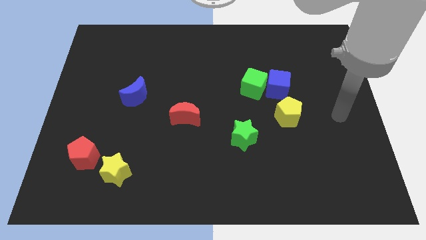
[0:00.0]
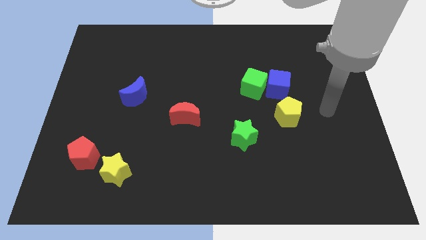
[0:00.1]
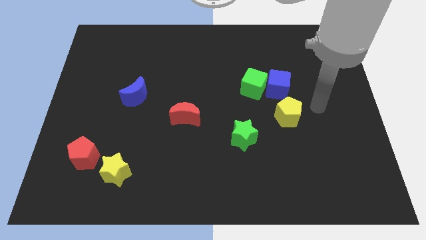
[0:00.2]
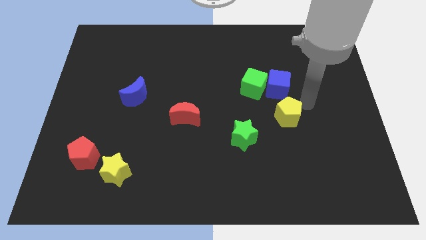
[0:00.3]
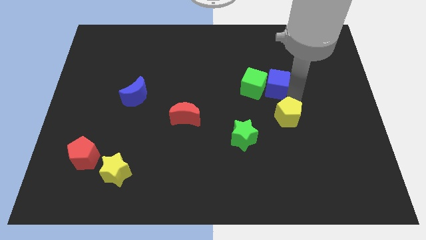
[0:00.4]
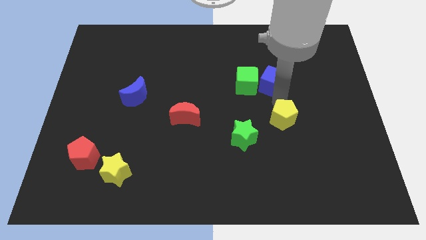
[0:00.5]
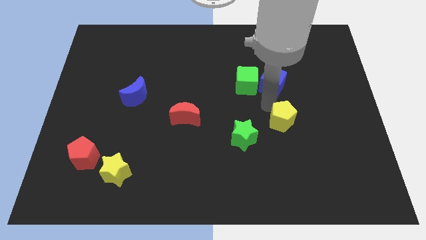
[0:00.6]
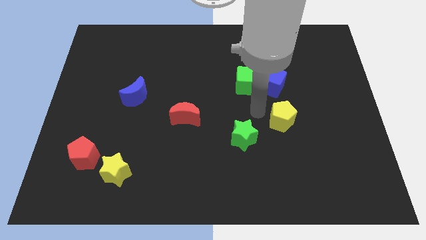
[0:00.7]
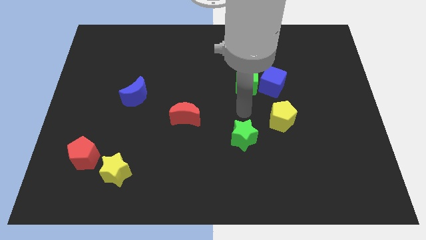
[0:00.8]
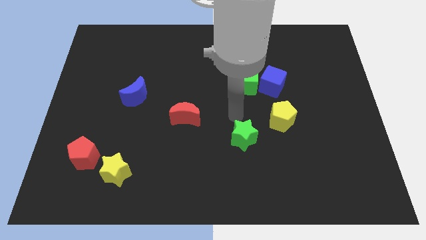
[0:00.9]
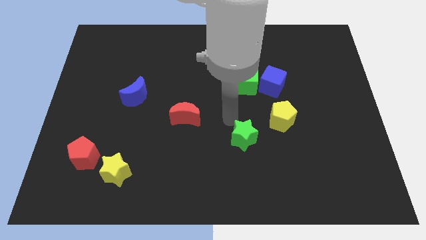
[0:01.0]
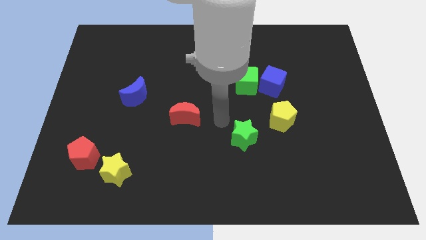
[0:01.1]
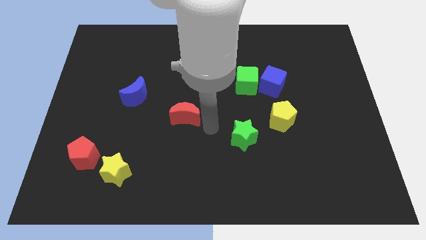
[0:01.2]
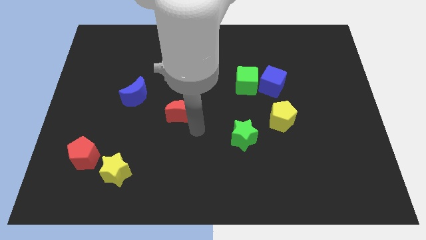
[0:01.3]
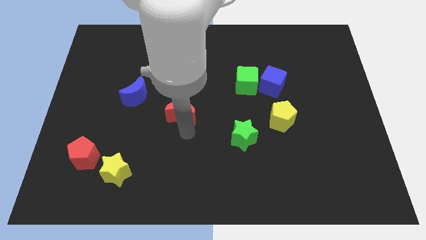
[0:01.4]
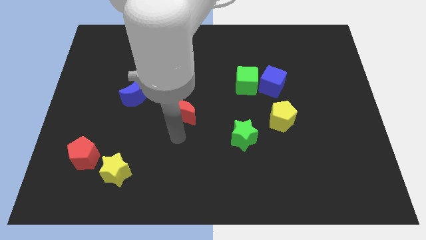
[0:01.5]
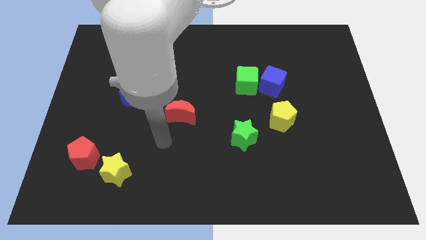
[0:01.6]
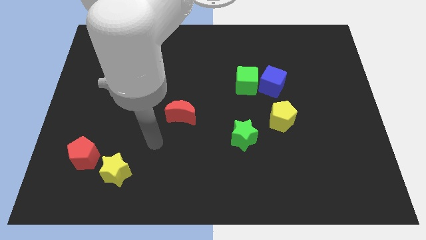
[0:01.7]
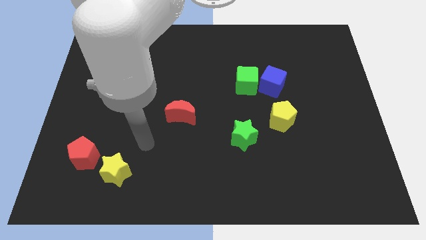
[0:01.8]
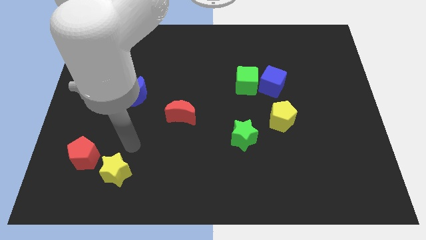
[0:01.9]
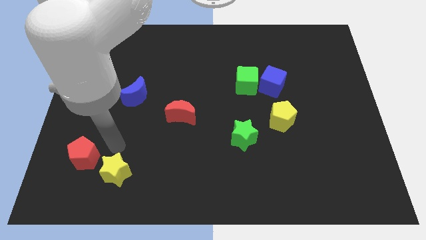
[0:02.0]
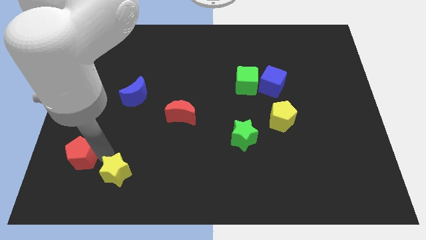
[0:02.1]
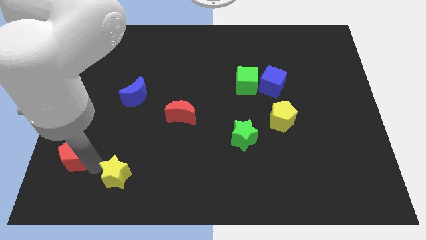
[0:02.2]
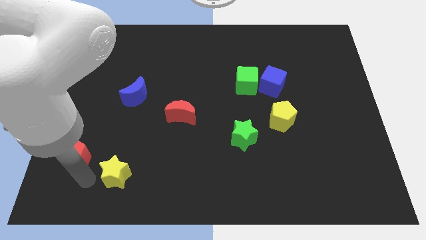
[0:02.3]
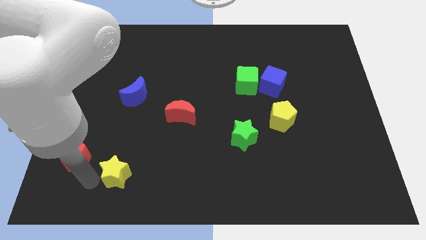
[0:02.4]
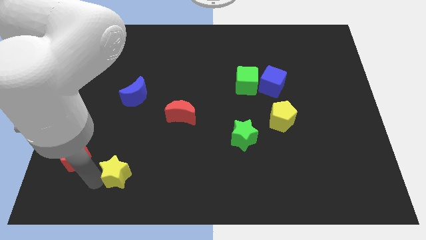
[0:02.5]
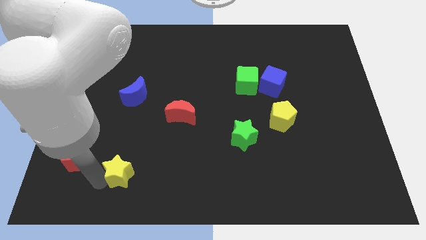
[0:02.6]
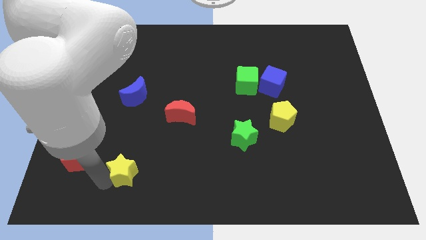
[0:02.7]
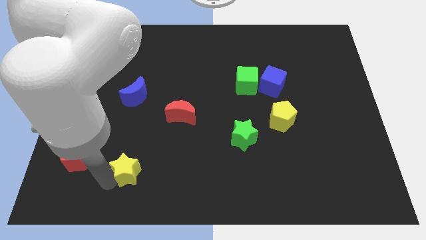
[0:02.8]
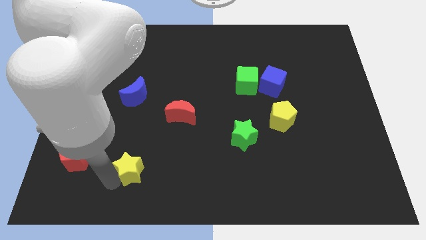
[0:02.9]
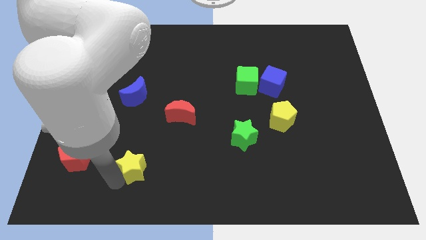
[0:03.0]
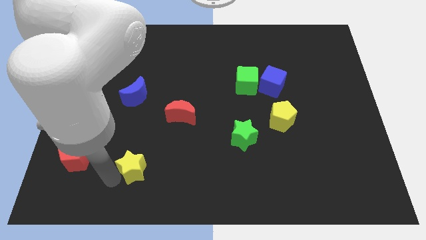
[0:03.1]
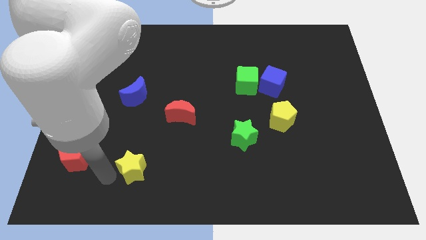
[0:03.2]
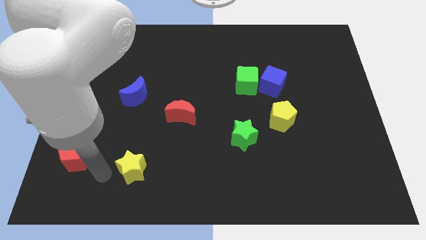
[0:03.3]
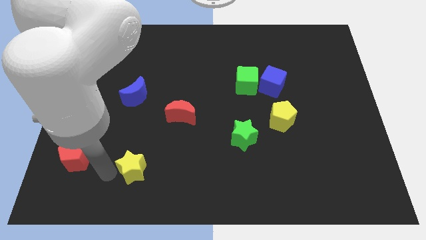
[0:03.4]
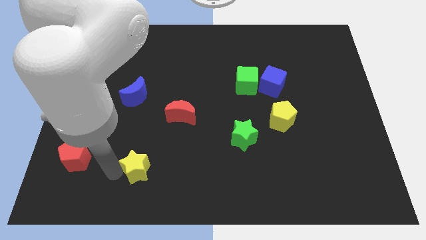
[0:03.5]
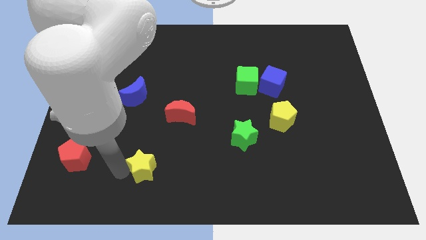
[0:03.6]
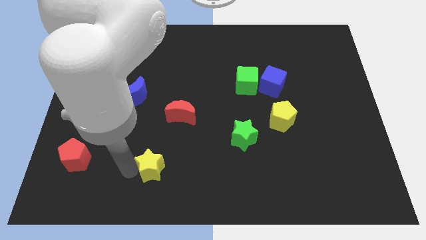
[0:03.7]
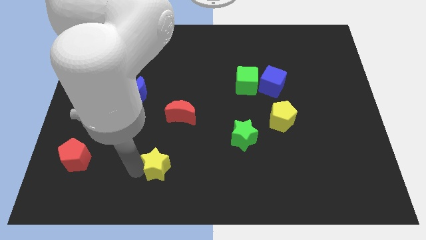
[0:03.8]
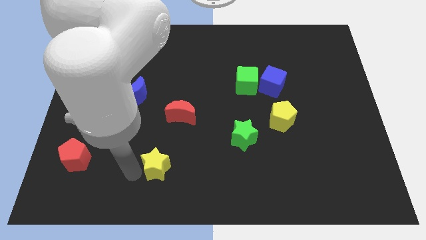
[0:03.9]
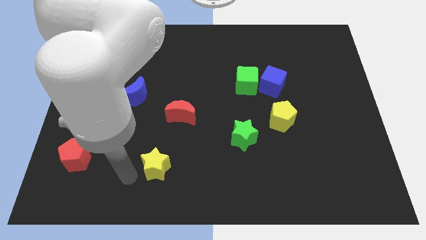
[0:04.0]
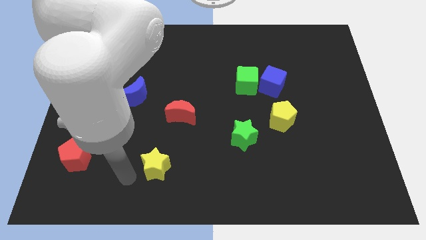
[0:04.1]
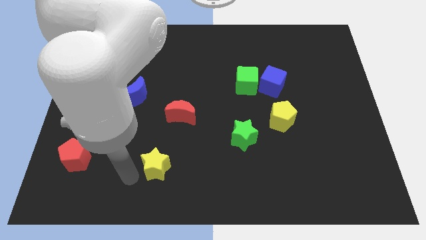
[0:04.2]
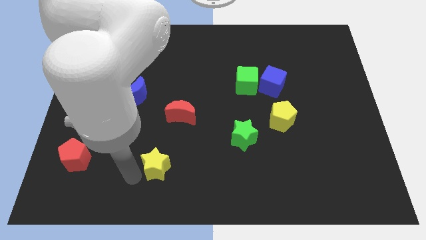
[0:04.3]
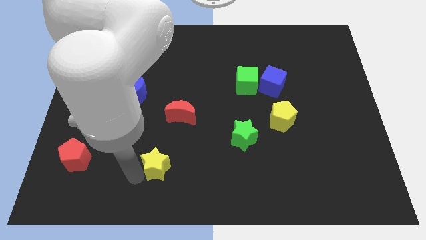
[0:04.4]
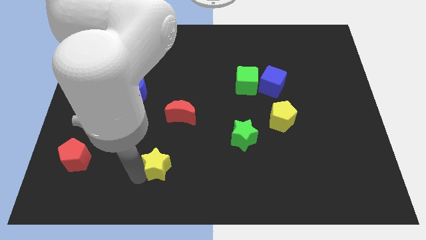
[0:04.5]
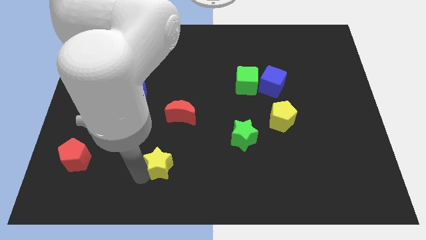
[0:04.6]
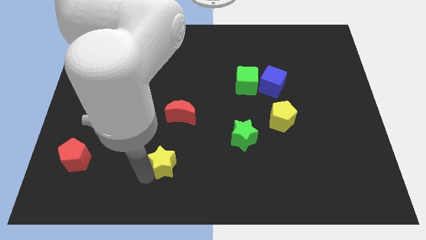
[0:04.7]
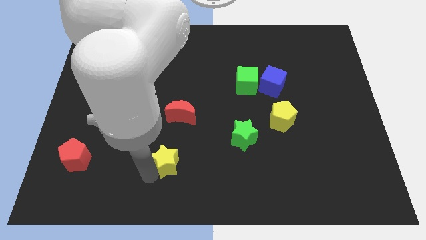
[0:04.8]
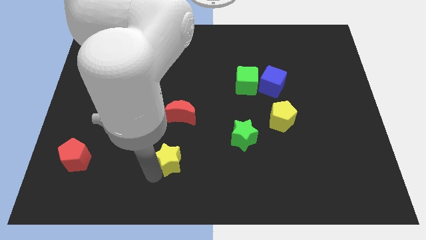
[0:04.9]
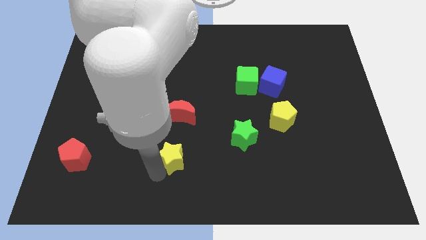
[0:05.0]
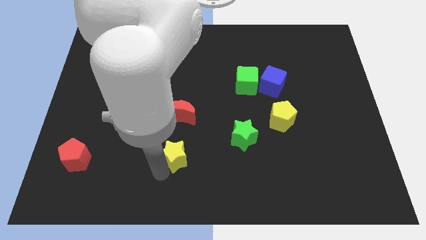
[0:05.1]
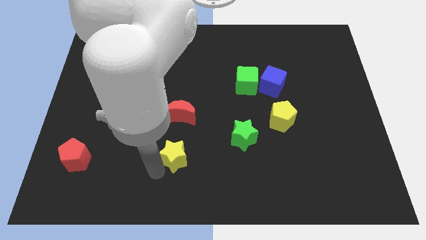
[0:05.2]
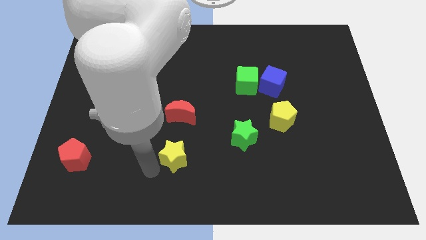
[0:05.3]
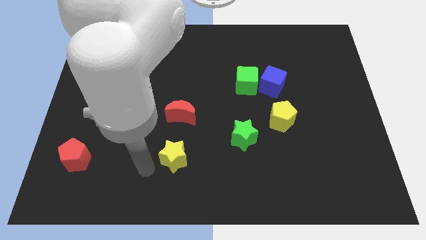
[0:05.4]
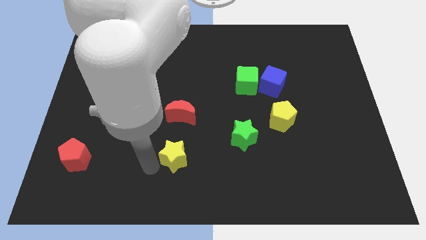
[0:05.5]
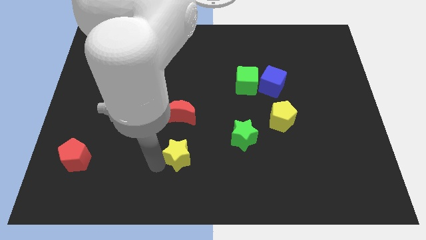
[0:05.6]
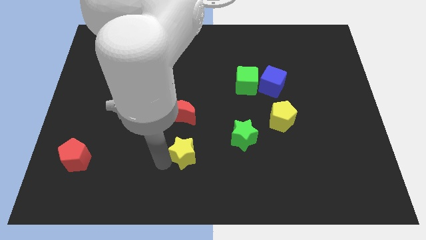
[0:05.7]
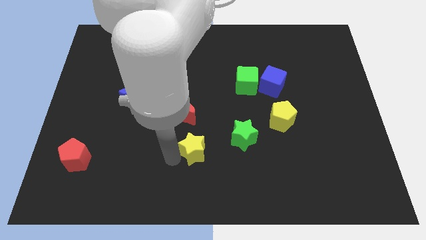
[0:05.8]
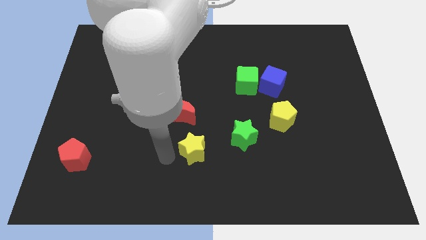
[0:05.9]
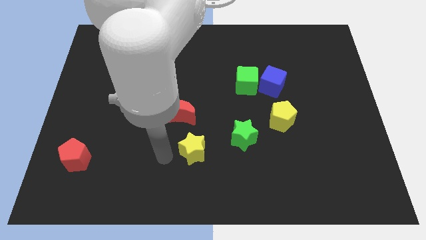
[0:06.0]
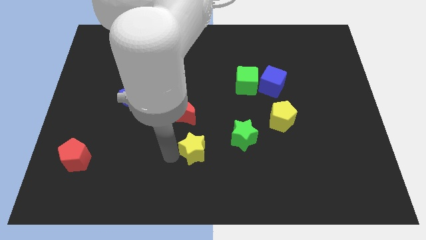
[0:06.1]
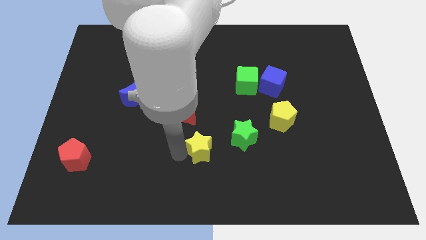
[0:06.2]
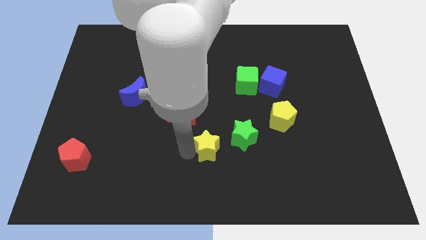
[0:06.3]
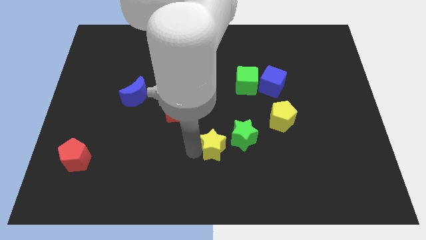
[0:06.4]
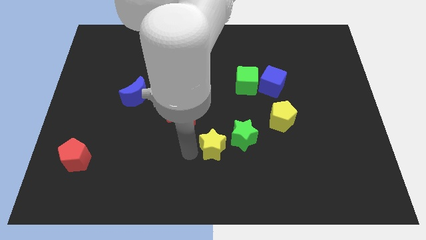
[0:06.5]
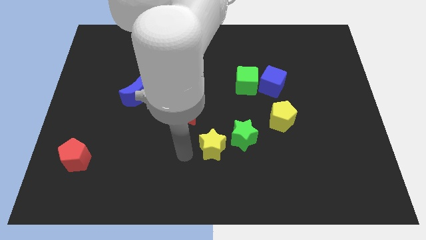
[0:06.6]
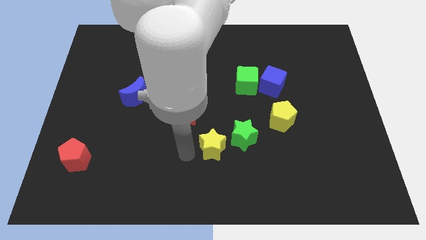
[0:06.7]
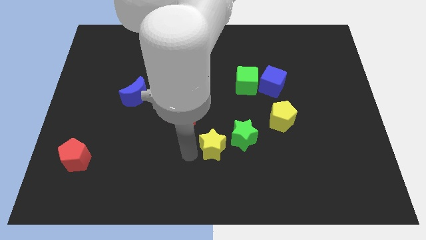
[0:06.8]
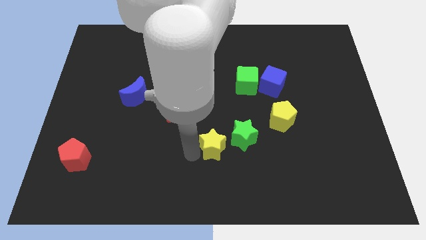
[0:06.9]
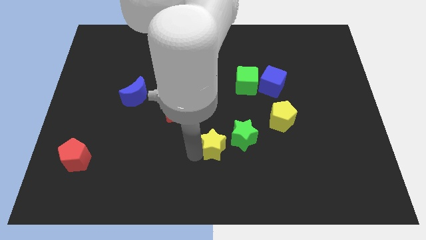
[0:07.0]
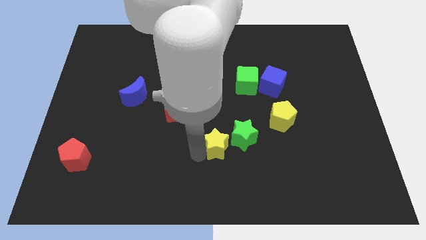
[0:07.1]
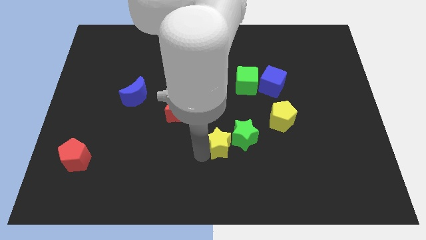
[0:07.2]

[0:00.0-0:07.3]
push the yellow star next to the green star

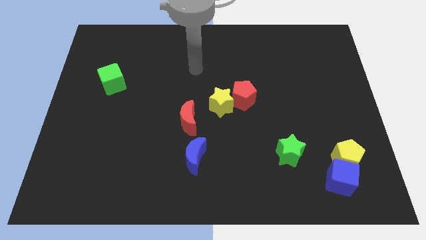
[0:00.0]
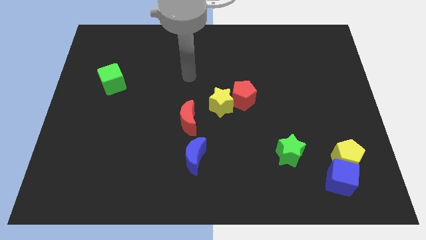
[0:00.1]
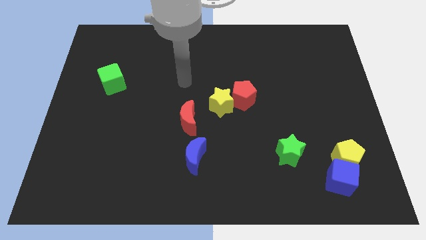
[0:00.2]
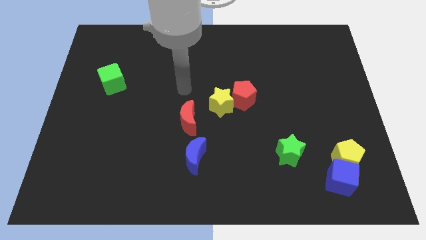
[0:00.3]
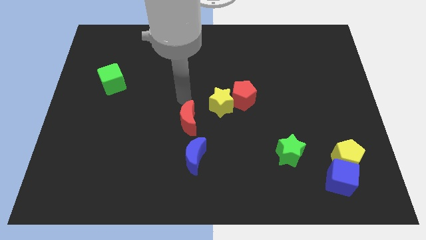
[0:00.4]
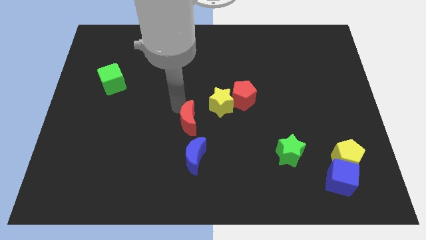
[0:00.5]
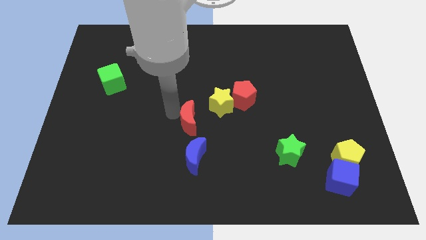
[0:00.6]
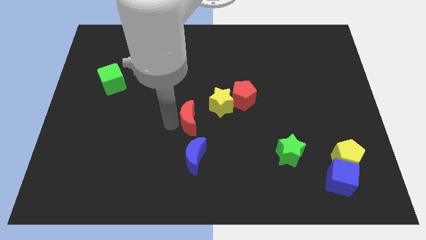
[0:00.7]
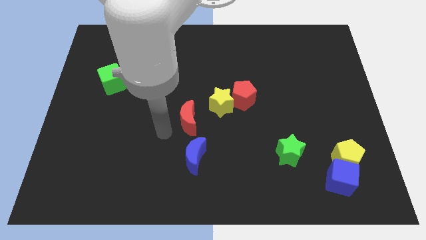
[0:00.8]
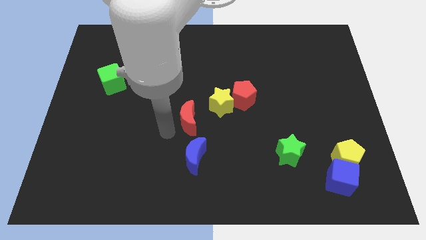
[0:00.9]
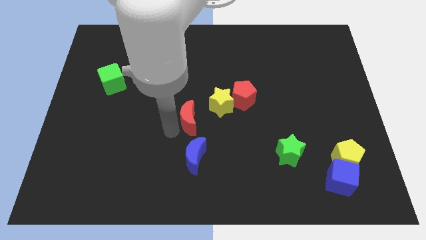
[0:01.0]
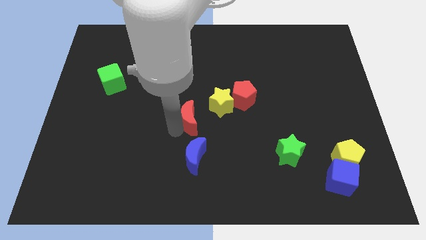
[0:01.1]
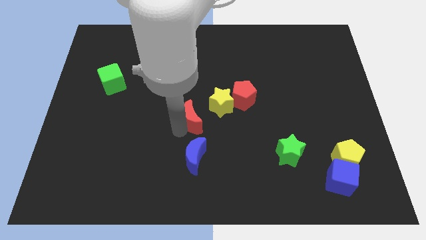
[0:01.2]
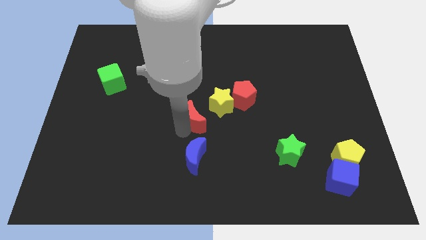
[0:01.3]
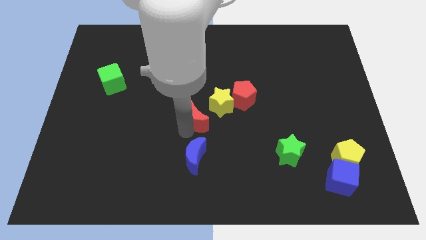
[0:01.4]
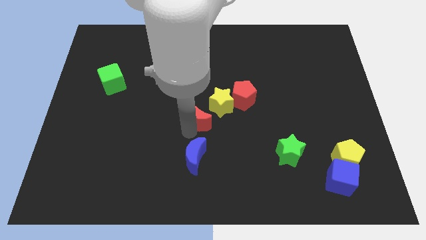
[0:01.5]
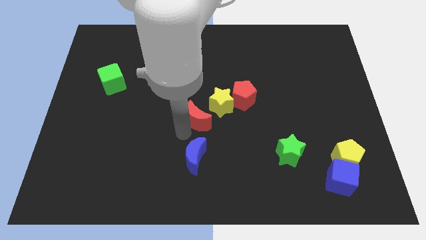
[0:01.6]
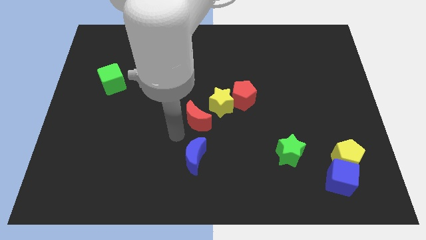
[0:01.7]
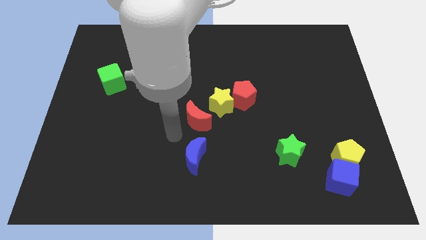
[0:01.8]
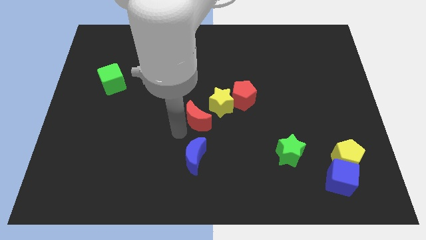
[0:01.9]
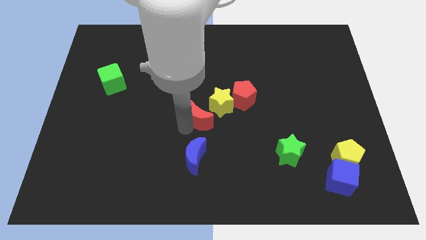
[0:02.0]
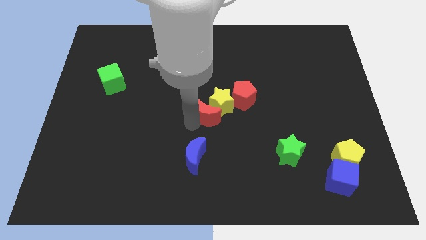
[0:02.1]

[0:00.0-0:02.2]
push the red moon next to the yellow star
